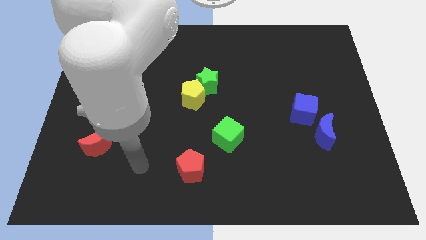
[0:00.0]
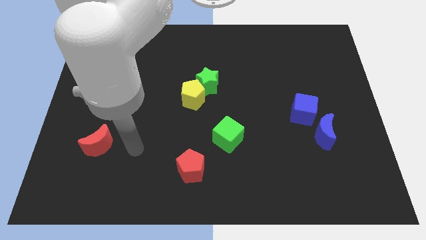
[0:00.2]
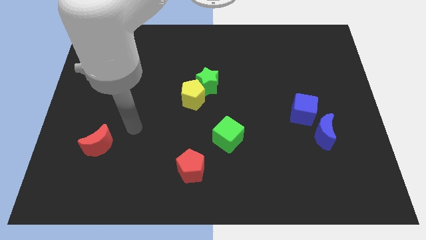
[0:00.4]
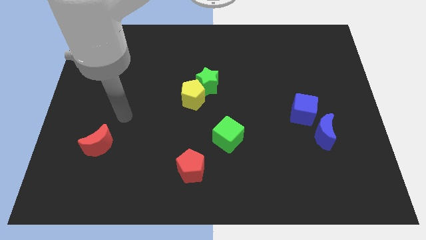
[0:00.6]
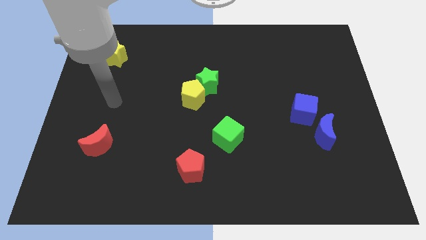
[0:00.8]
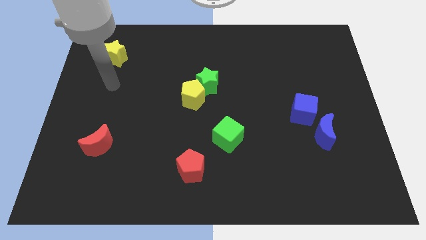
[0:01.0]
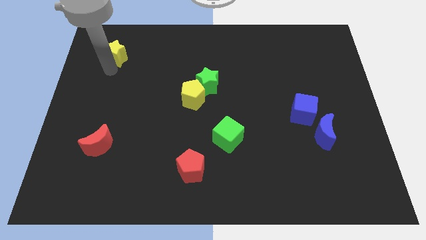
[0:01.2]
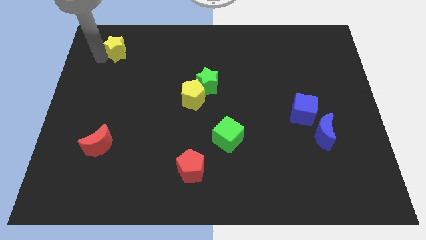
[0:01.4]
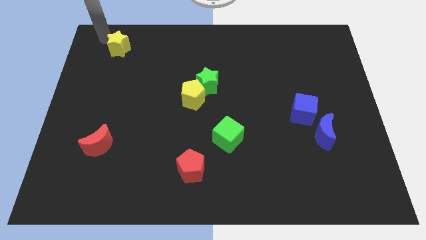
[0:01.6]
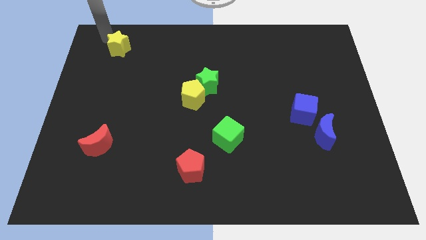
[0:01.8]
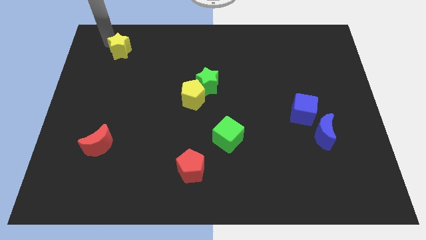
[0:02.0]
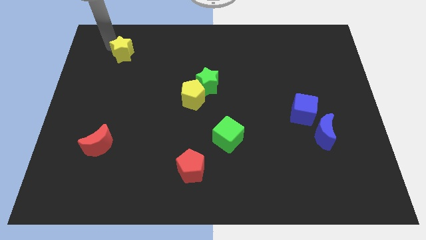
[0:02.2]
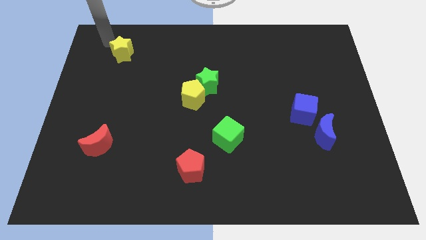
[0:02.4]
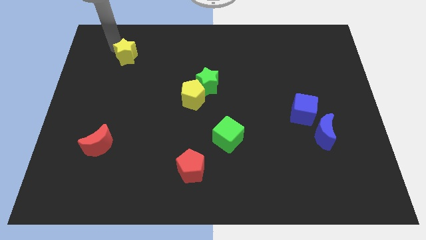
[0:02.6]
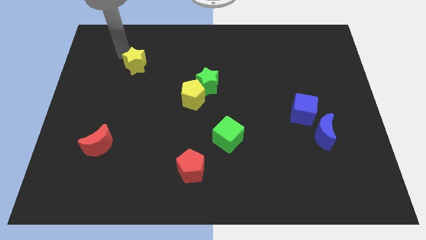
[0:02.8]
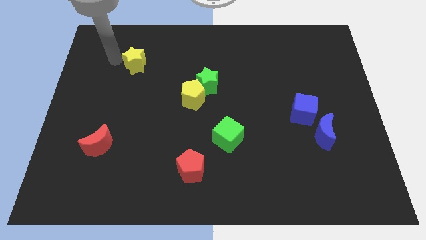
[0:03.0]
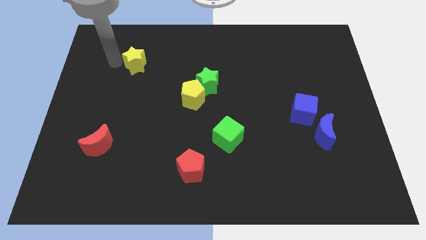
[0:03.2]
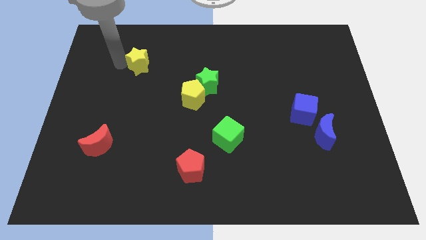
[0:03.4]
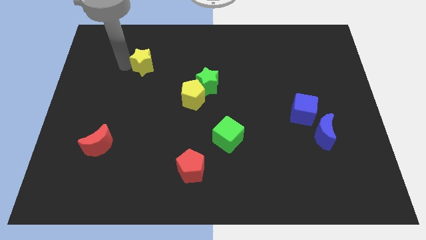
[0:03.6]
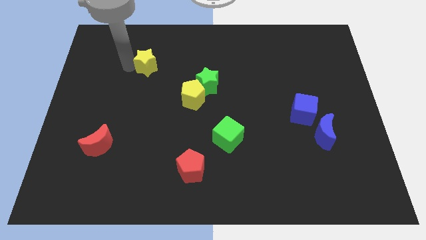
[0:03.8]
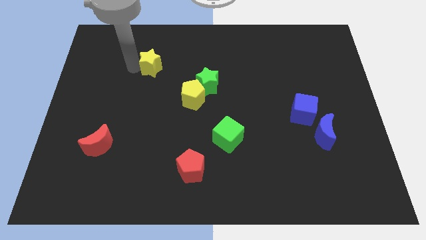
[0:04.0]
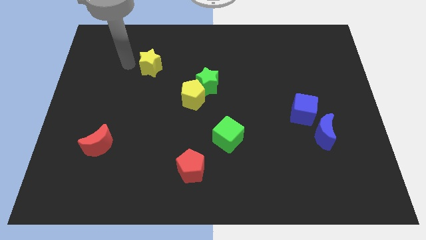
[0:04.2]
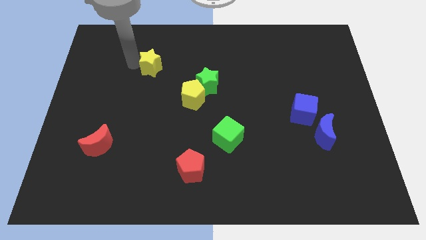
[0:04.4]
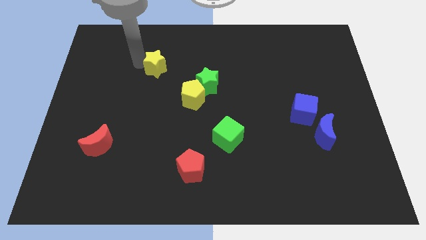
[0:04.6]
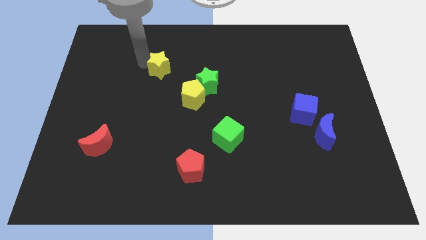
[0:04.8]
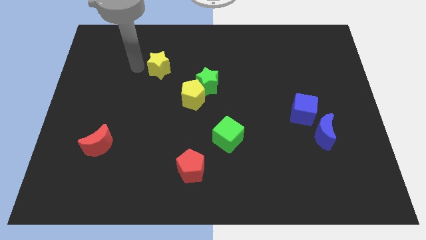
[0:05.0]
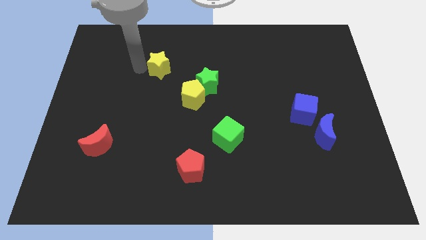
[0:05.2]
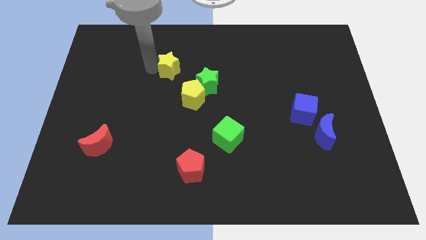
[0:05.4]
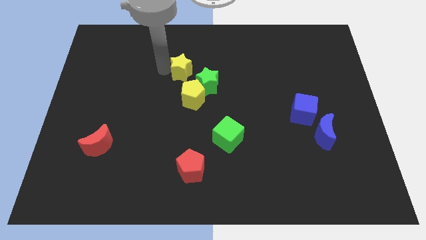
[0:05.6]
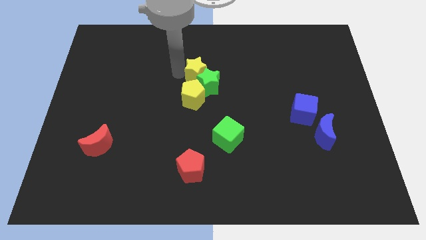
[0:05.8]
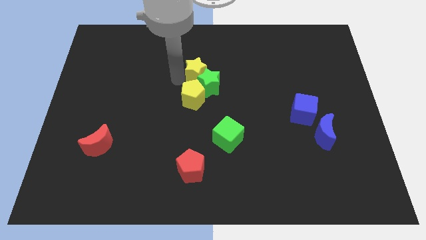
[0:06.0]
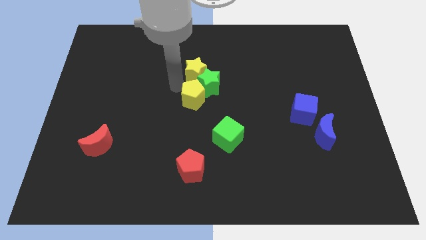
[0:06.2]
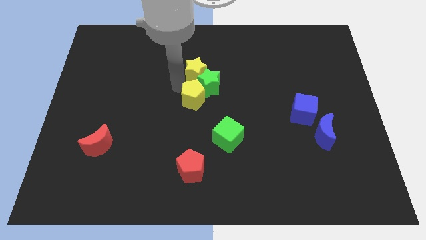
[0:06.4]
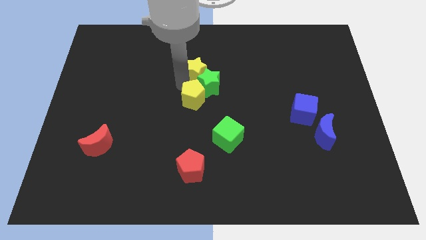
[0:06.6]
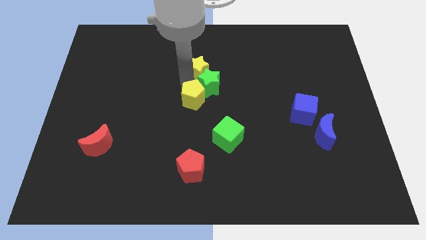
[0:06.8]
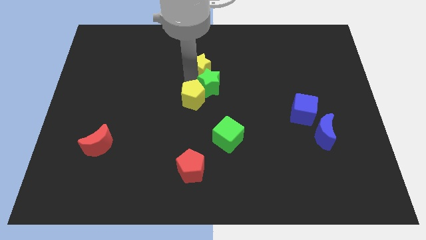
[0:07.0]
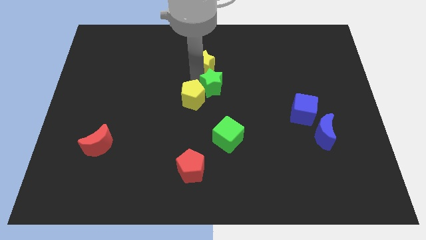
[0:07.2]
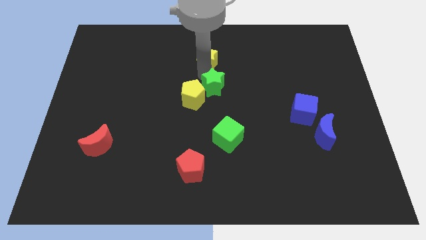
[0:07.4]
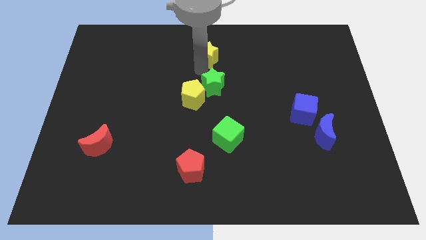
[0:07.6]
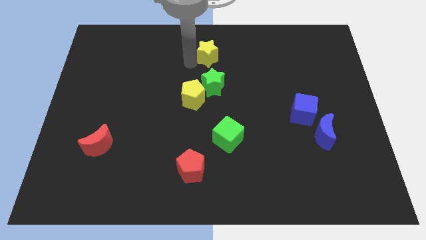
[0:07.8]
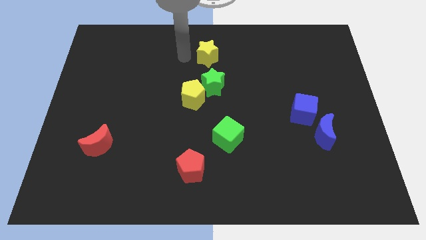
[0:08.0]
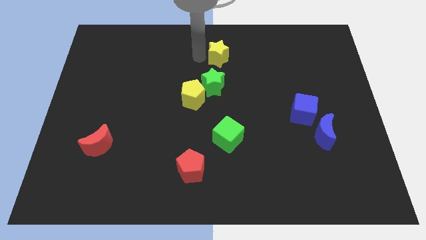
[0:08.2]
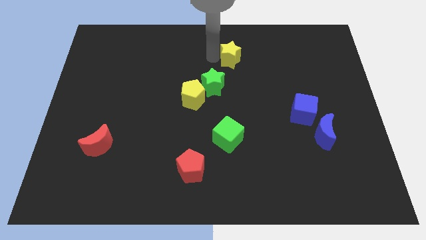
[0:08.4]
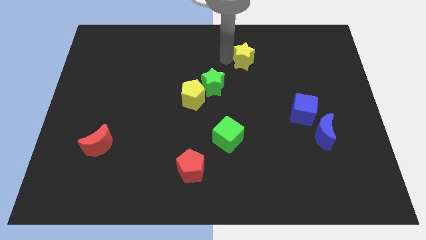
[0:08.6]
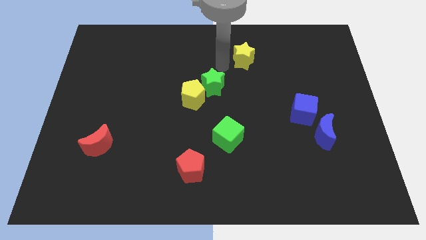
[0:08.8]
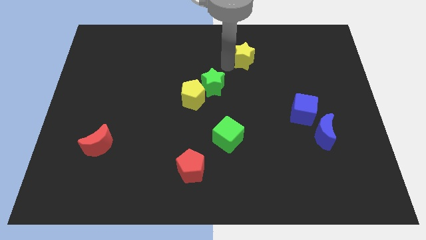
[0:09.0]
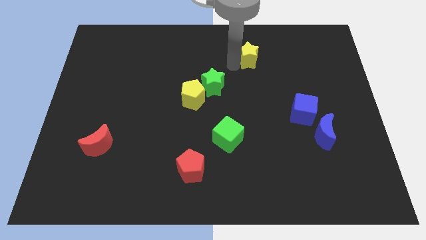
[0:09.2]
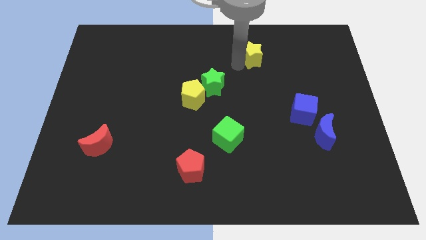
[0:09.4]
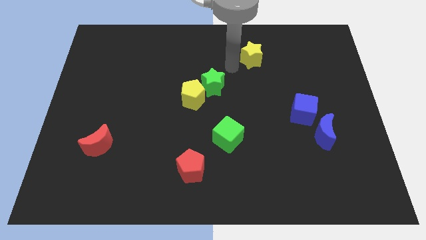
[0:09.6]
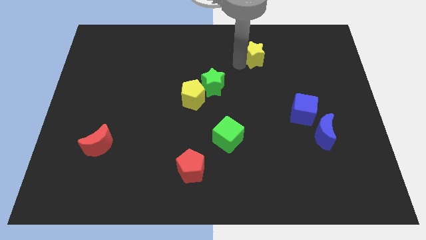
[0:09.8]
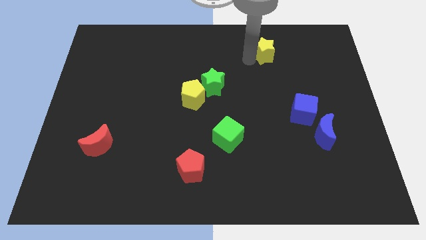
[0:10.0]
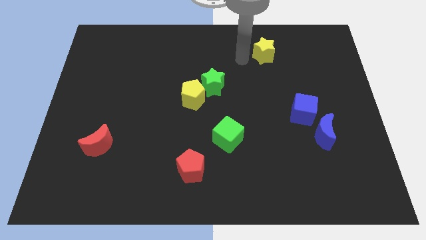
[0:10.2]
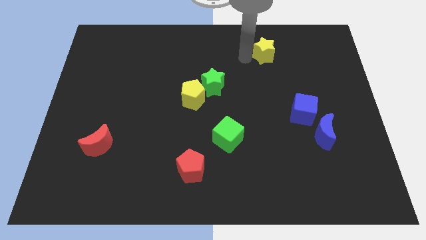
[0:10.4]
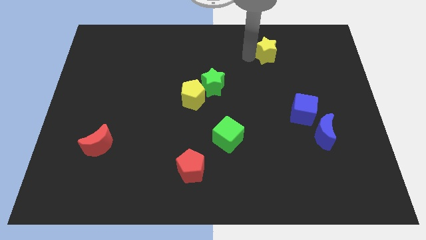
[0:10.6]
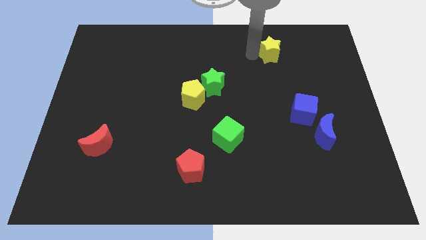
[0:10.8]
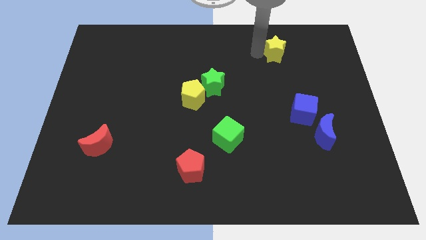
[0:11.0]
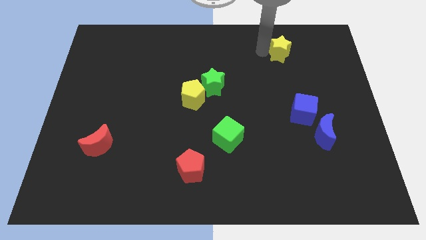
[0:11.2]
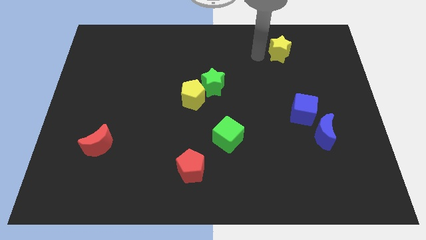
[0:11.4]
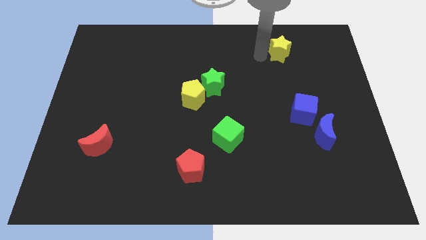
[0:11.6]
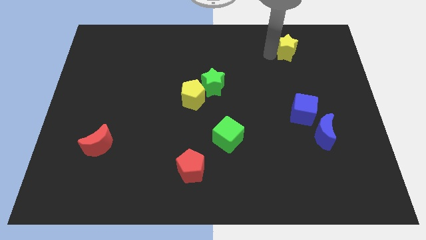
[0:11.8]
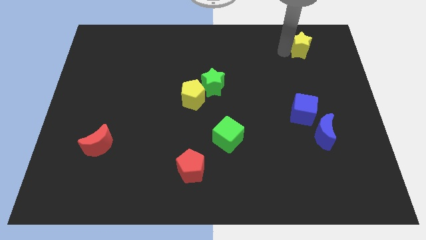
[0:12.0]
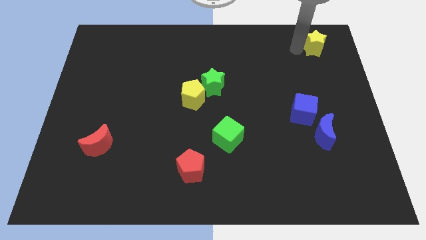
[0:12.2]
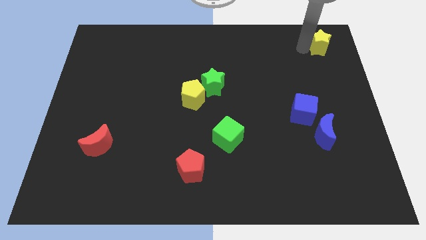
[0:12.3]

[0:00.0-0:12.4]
slide the yellow star to the upper right corner
